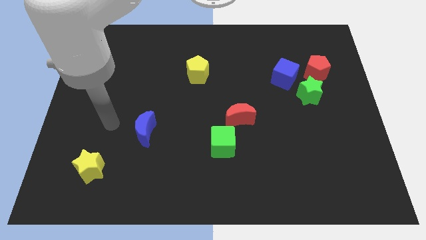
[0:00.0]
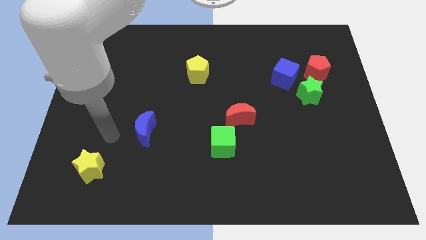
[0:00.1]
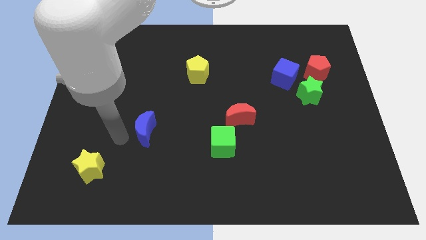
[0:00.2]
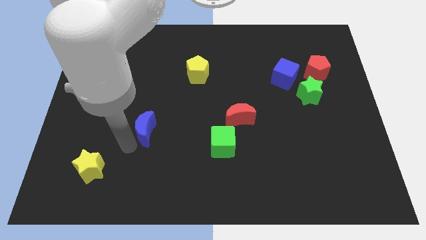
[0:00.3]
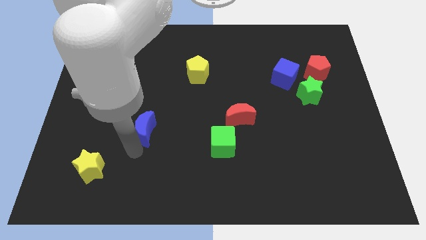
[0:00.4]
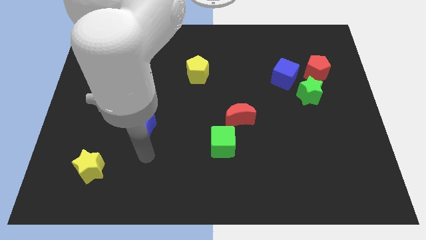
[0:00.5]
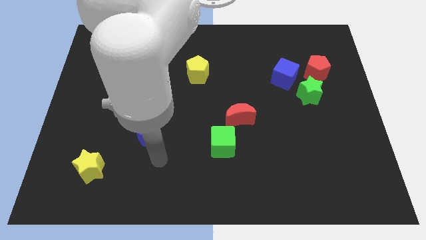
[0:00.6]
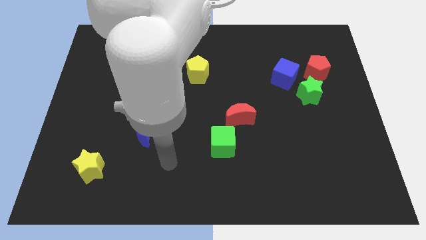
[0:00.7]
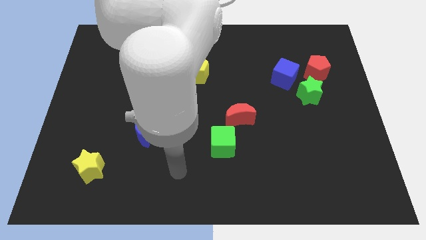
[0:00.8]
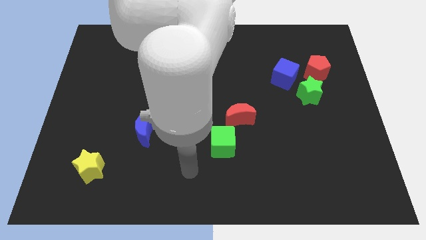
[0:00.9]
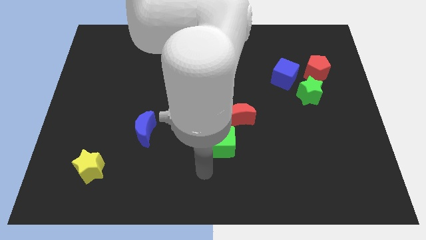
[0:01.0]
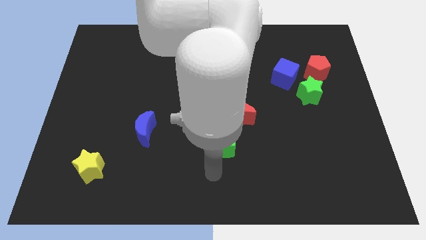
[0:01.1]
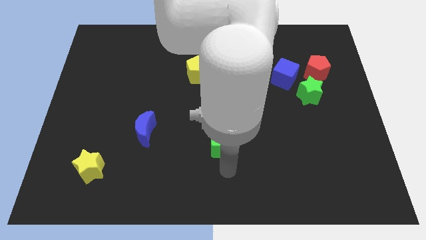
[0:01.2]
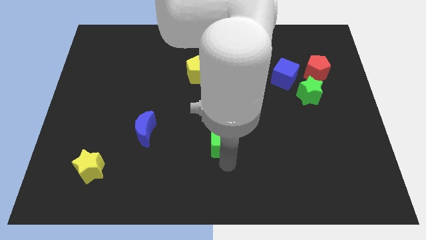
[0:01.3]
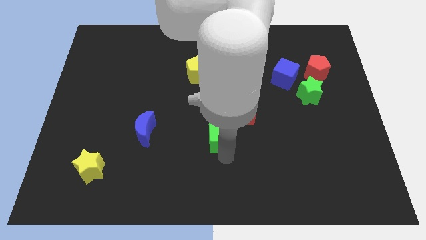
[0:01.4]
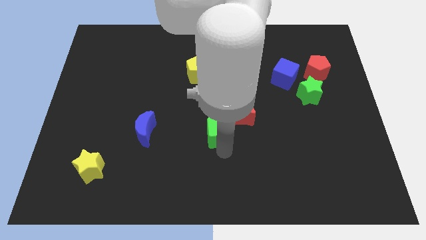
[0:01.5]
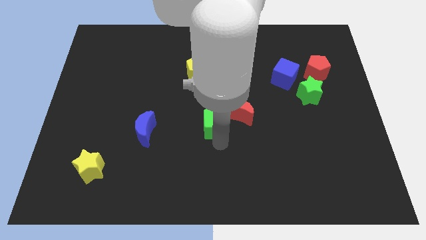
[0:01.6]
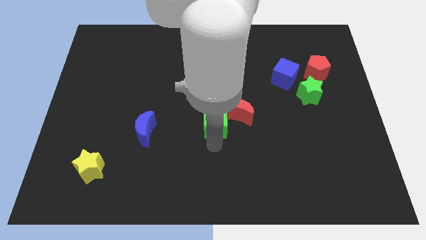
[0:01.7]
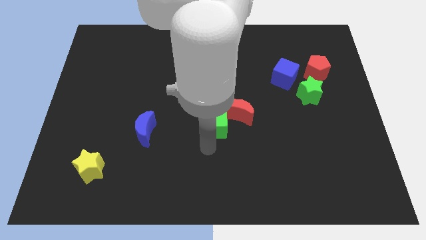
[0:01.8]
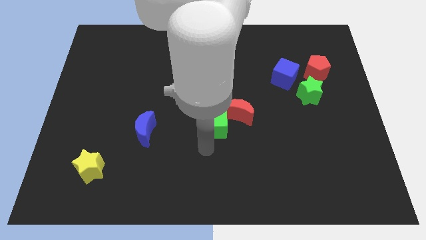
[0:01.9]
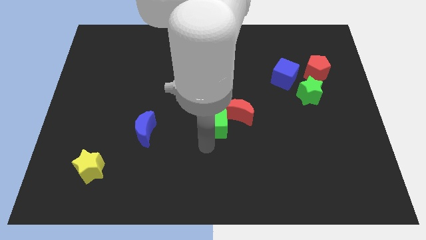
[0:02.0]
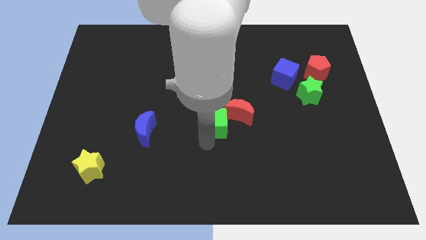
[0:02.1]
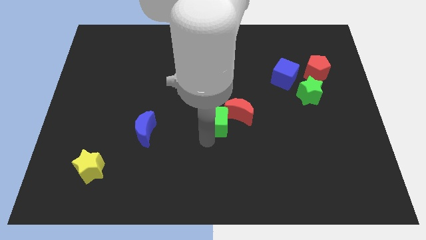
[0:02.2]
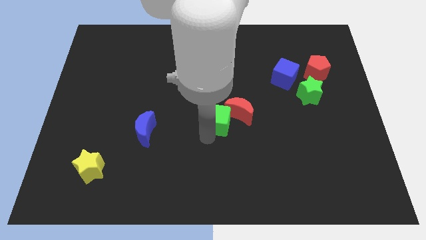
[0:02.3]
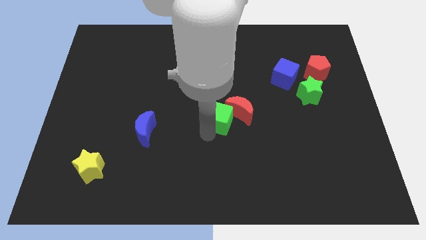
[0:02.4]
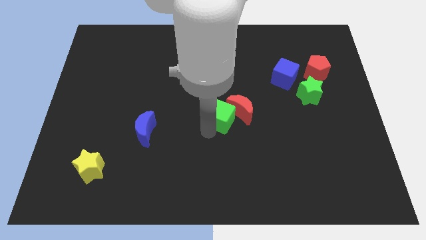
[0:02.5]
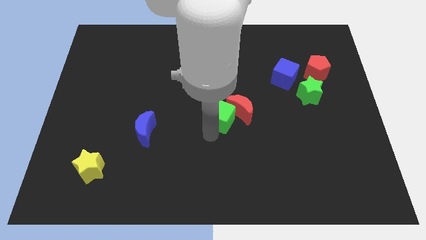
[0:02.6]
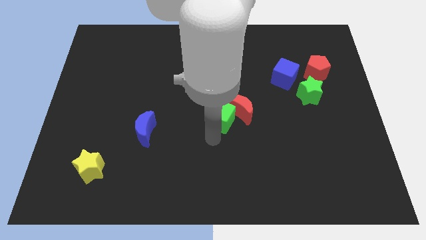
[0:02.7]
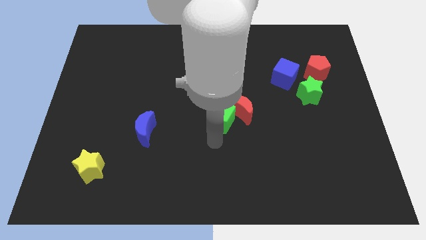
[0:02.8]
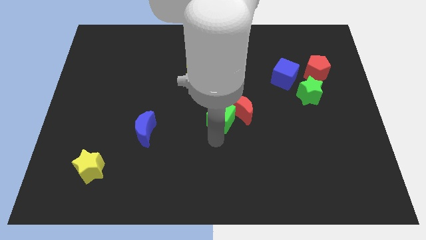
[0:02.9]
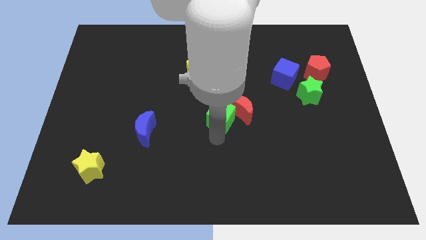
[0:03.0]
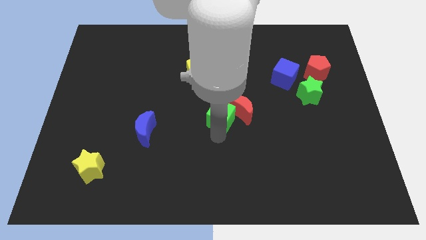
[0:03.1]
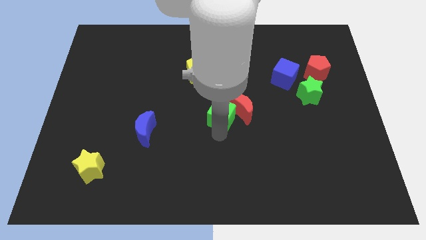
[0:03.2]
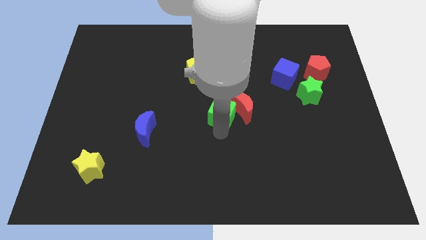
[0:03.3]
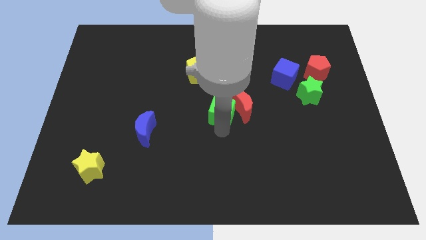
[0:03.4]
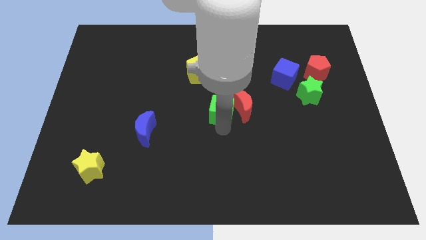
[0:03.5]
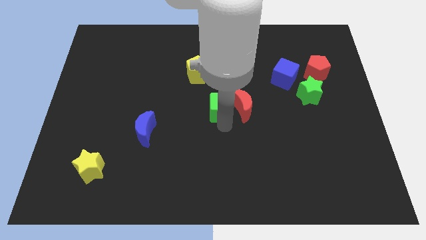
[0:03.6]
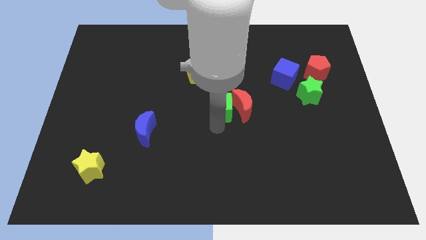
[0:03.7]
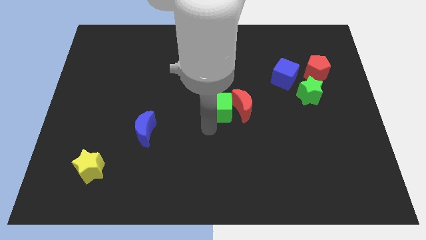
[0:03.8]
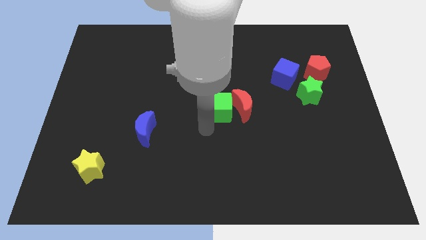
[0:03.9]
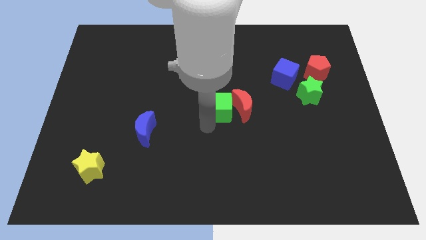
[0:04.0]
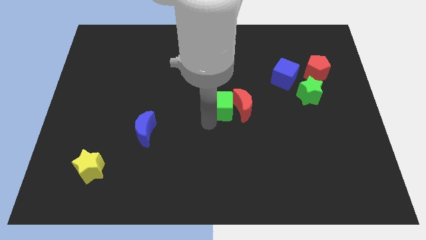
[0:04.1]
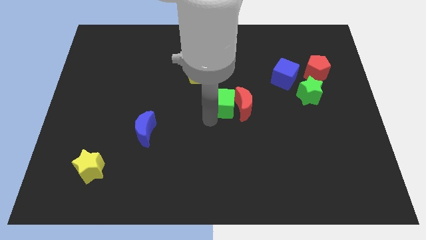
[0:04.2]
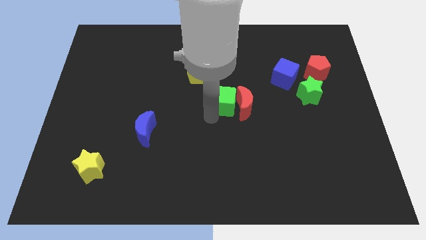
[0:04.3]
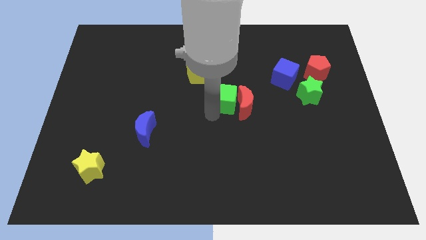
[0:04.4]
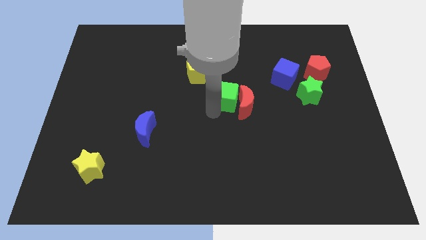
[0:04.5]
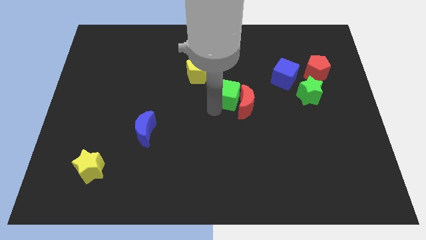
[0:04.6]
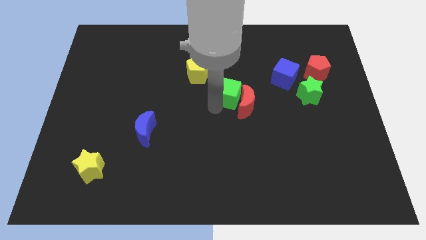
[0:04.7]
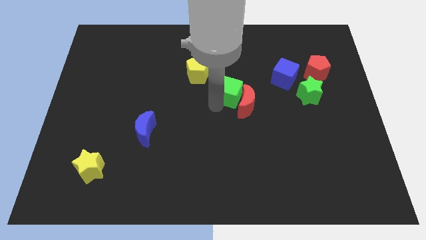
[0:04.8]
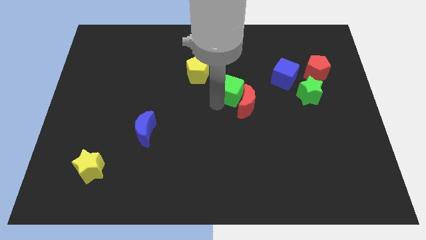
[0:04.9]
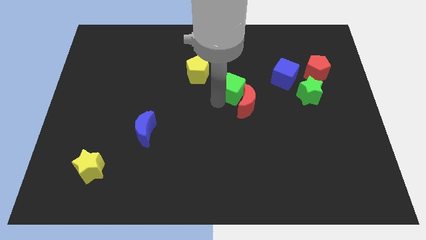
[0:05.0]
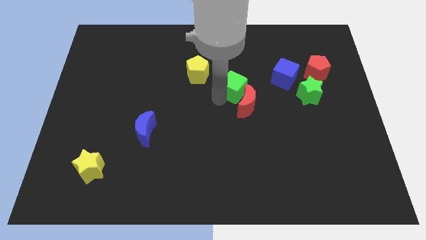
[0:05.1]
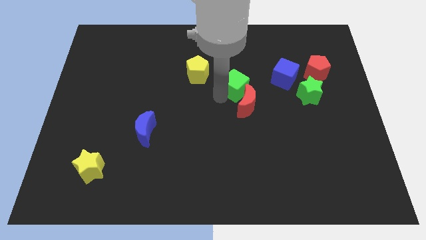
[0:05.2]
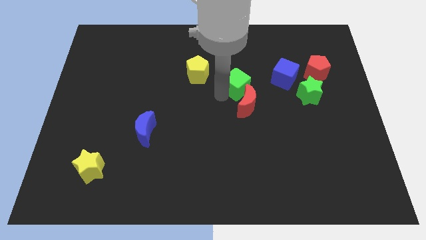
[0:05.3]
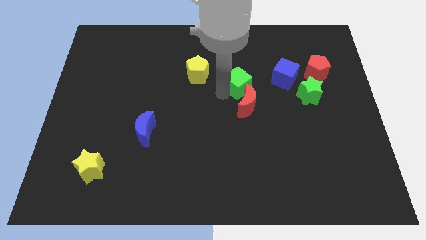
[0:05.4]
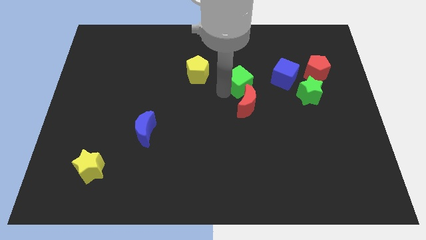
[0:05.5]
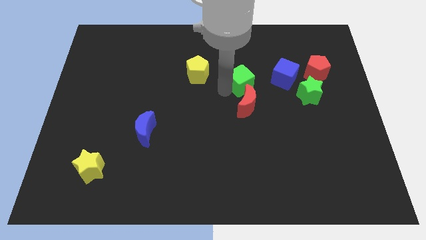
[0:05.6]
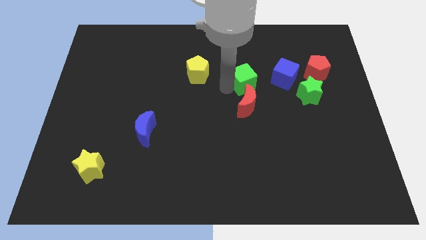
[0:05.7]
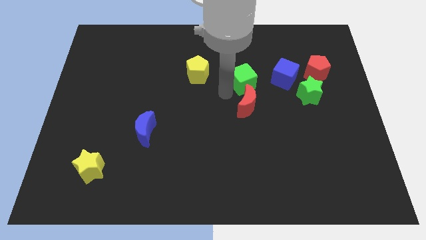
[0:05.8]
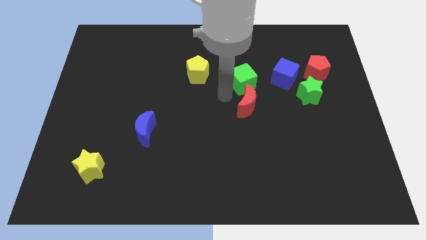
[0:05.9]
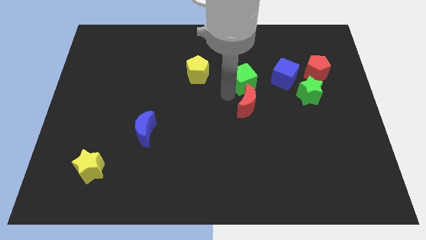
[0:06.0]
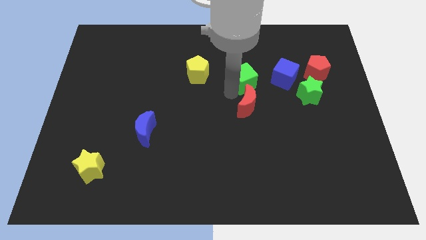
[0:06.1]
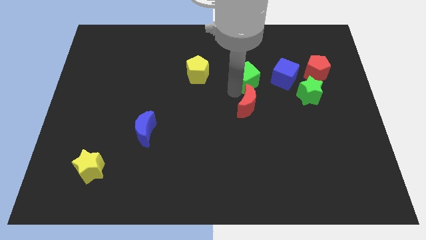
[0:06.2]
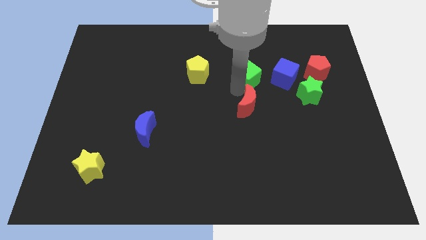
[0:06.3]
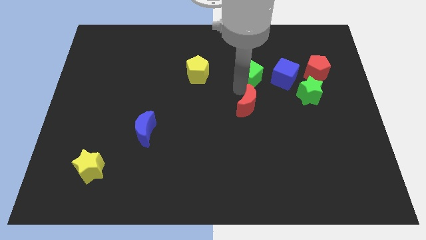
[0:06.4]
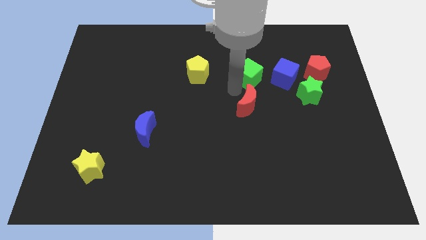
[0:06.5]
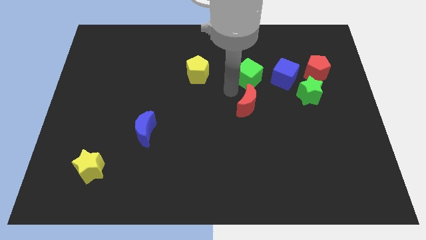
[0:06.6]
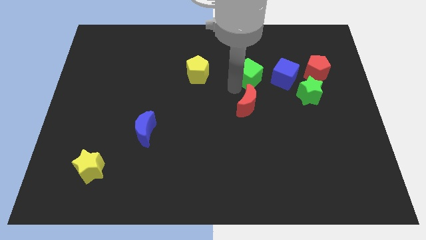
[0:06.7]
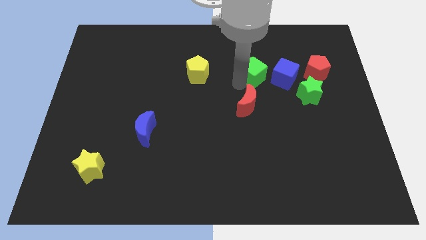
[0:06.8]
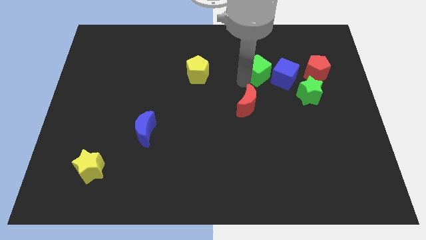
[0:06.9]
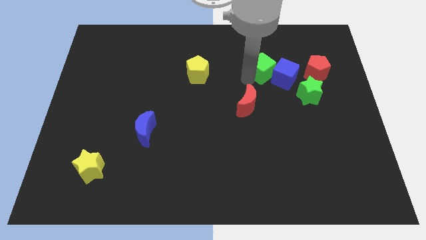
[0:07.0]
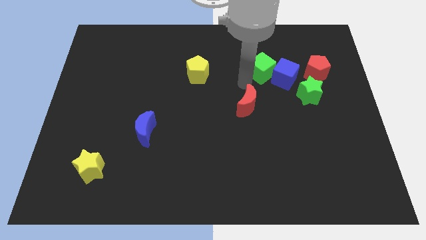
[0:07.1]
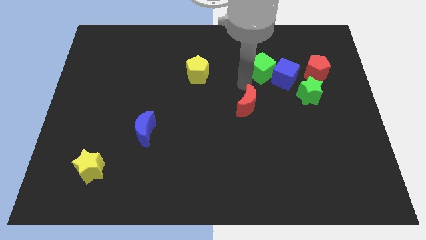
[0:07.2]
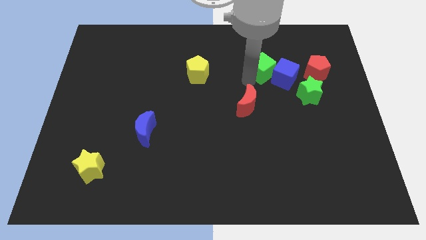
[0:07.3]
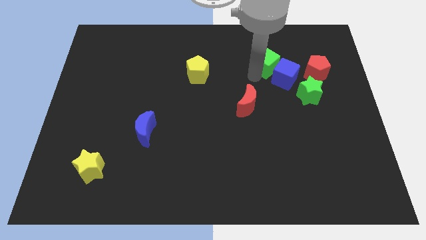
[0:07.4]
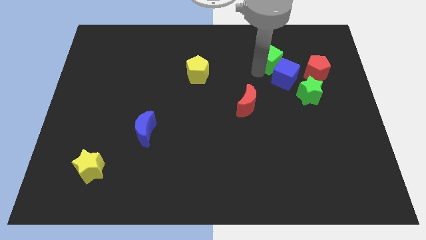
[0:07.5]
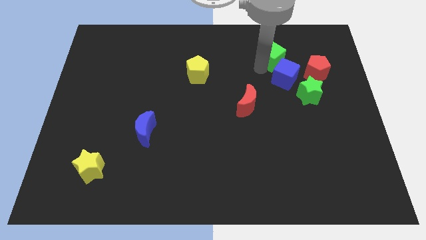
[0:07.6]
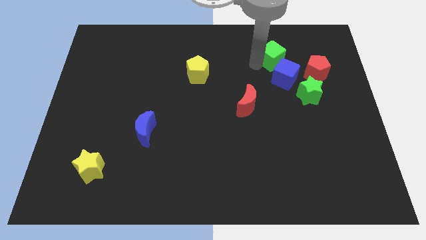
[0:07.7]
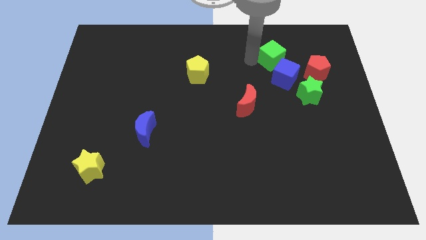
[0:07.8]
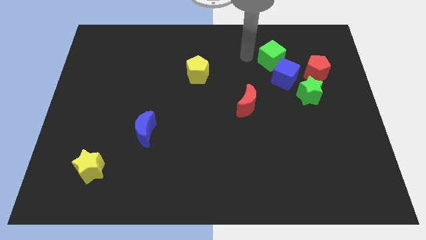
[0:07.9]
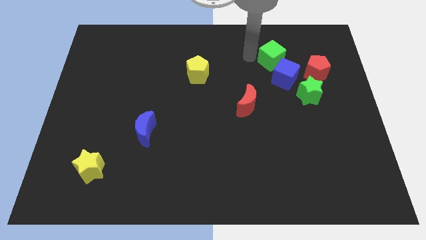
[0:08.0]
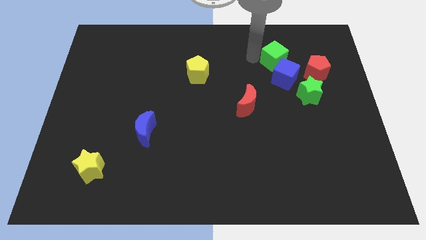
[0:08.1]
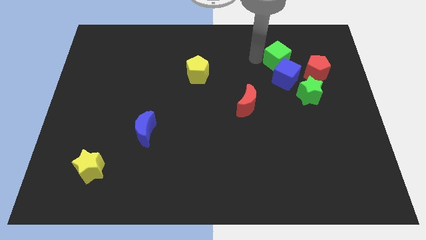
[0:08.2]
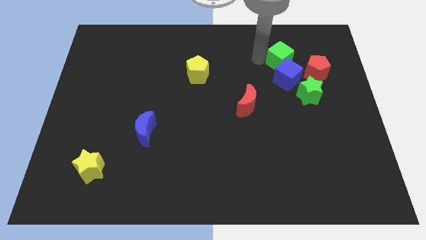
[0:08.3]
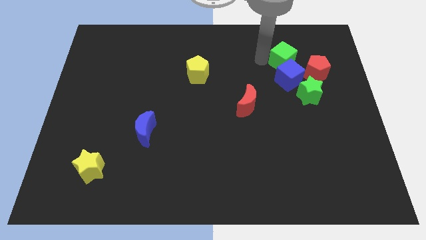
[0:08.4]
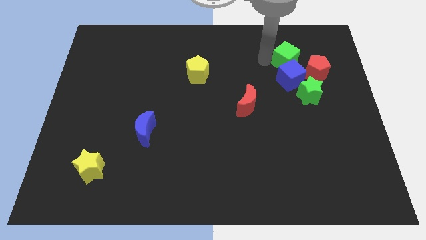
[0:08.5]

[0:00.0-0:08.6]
move the green cube to the top right of the blue cube
